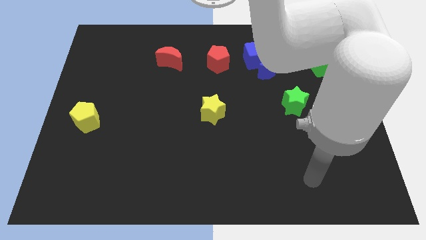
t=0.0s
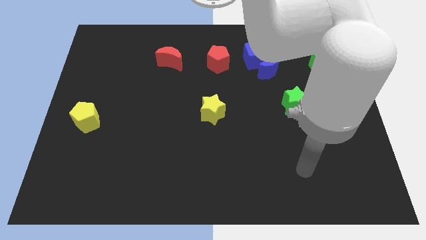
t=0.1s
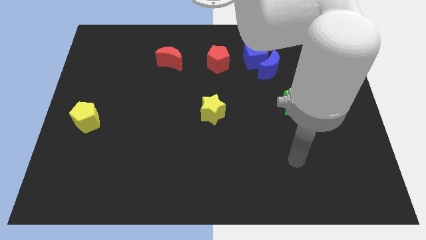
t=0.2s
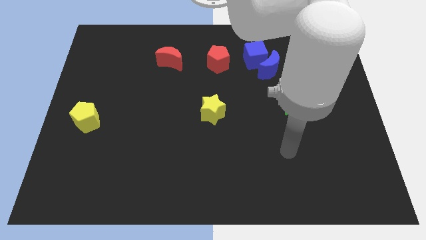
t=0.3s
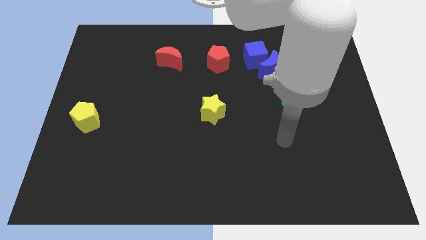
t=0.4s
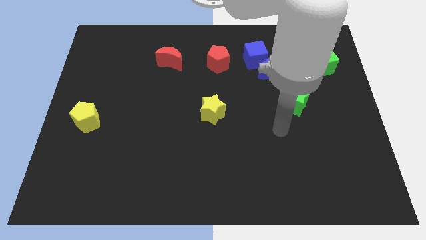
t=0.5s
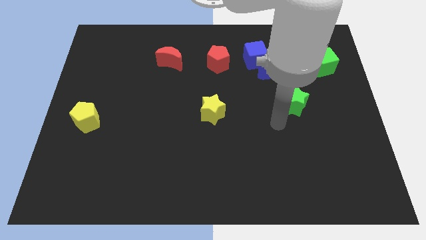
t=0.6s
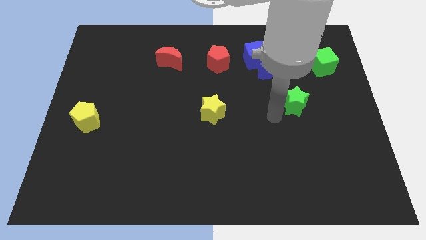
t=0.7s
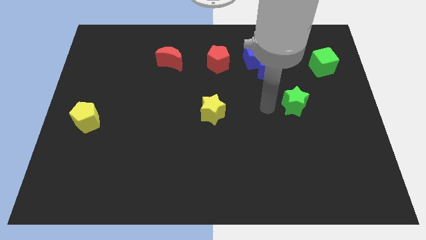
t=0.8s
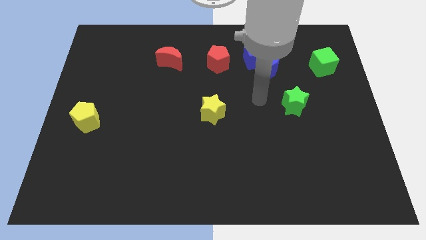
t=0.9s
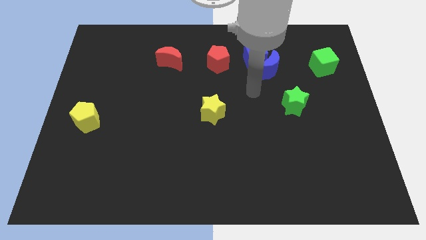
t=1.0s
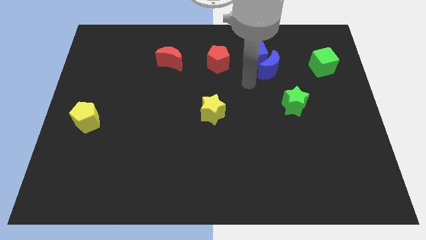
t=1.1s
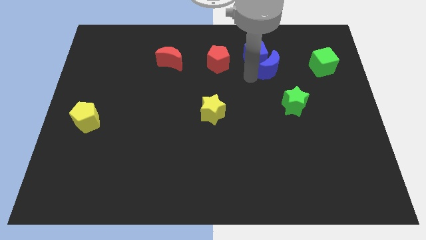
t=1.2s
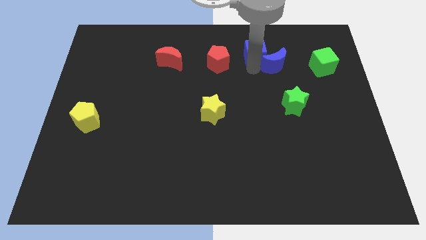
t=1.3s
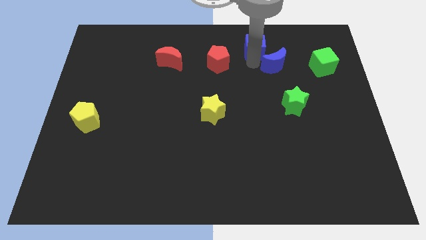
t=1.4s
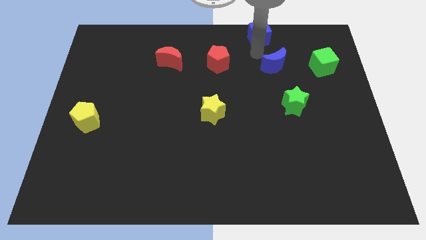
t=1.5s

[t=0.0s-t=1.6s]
separate the blue moon from the blue cube

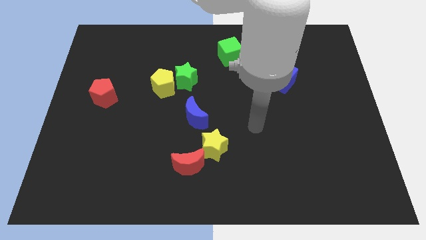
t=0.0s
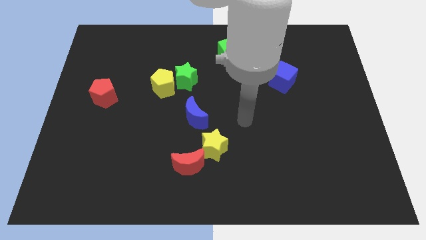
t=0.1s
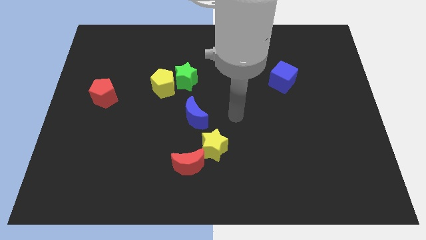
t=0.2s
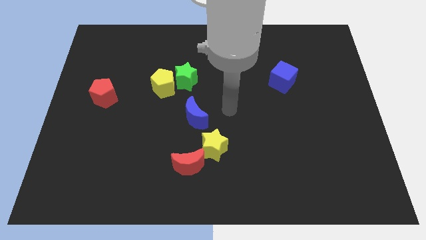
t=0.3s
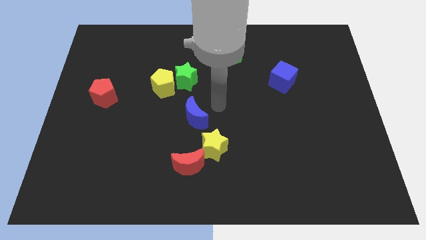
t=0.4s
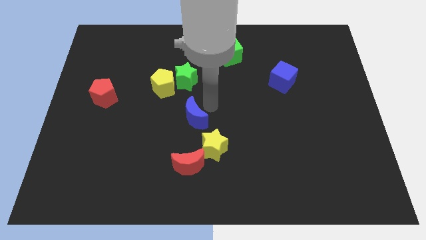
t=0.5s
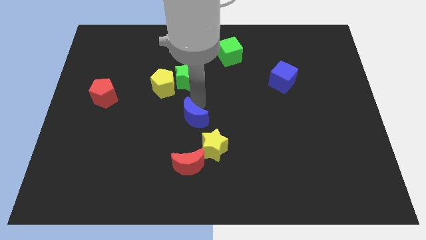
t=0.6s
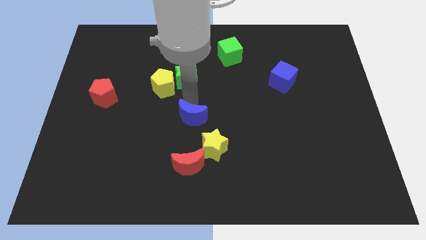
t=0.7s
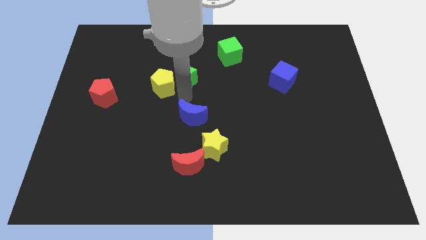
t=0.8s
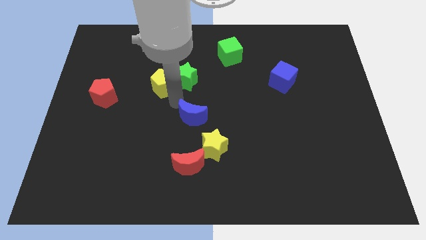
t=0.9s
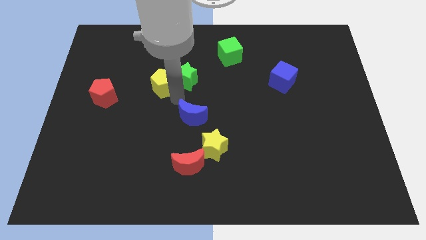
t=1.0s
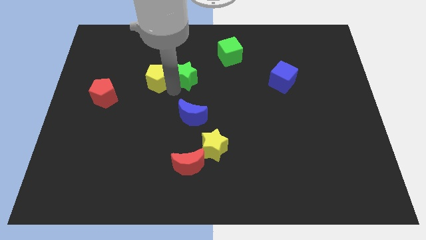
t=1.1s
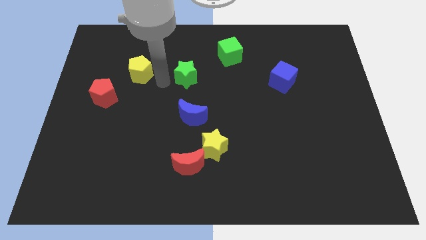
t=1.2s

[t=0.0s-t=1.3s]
separate the green star from the yellow pentagon

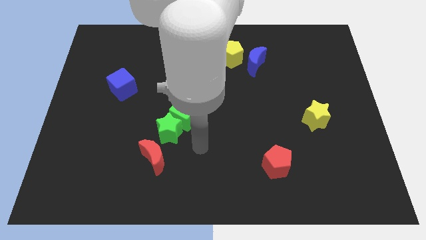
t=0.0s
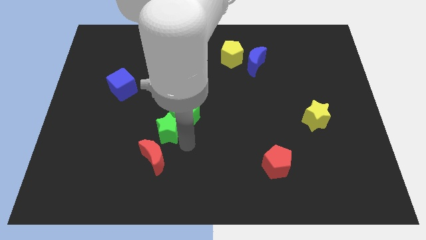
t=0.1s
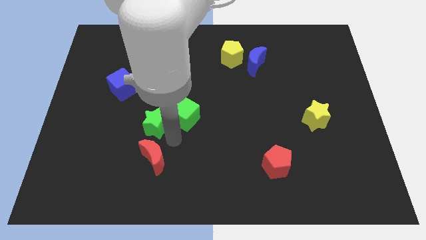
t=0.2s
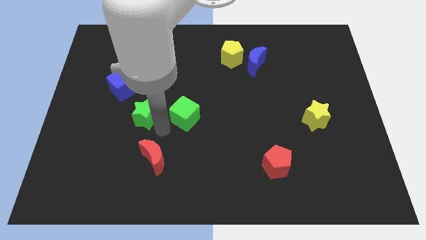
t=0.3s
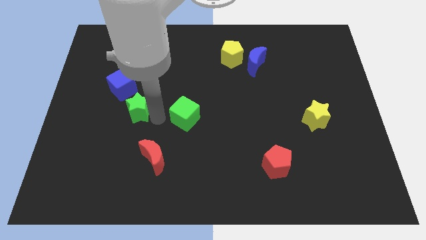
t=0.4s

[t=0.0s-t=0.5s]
separate the green cube from the green star

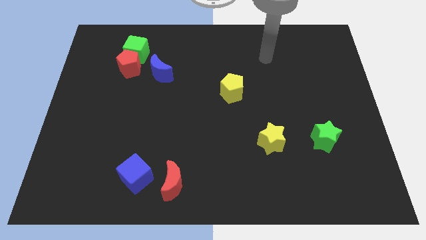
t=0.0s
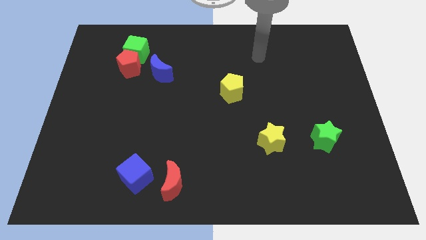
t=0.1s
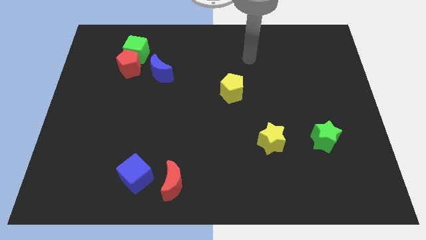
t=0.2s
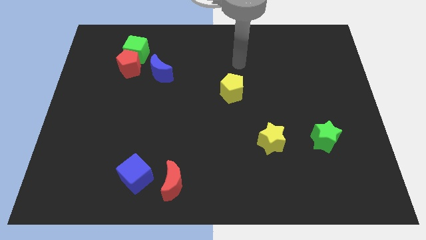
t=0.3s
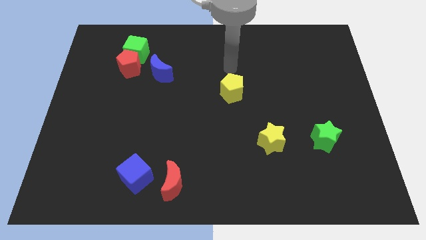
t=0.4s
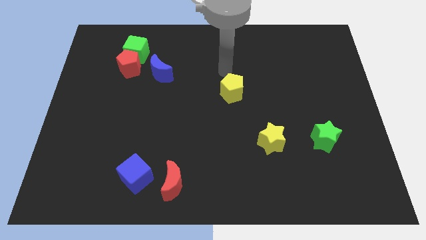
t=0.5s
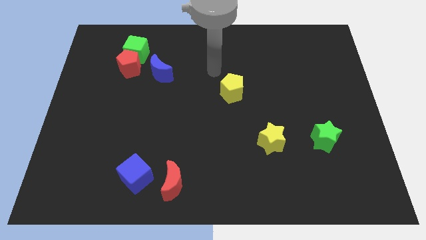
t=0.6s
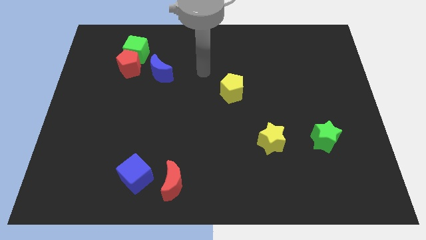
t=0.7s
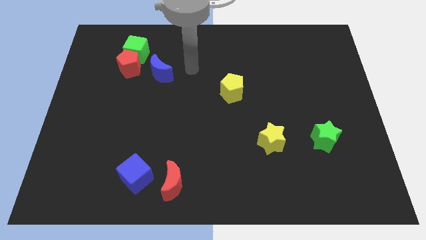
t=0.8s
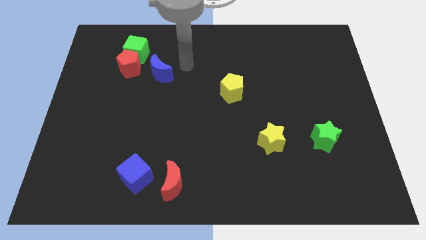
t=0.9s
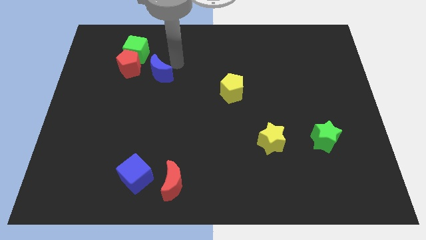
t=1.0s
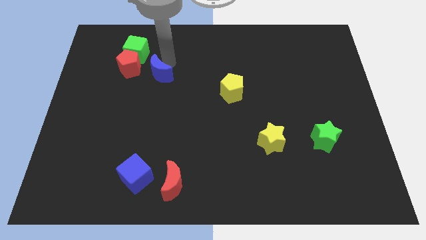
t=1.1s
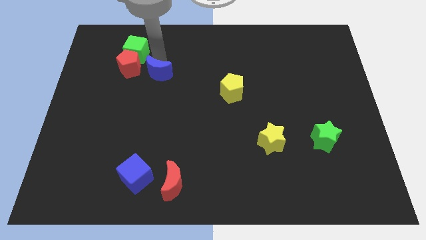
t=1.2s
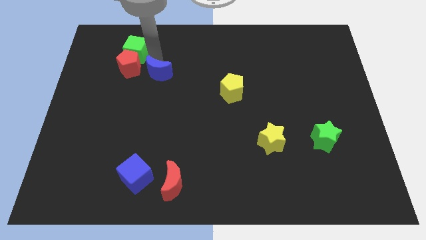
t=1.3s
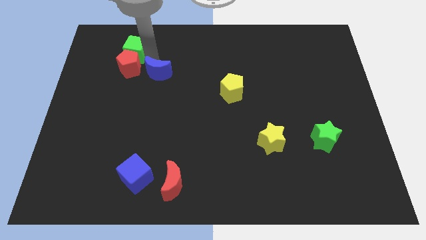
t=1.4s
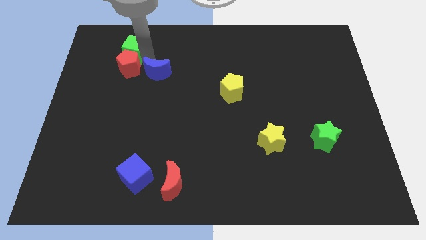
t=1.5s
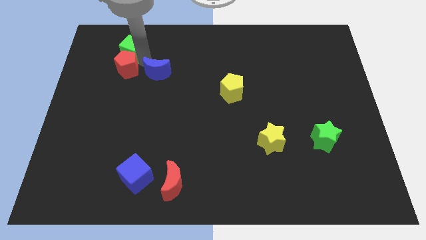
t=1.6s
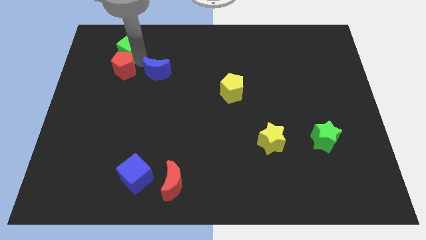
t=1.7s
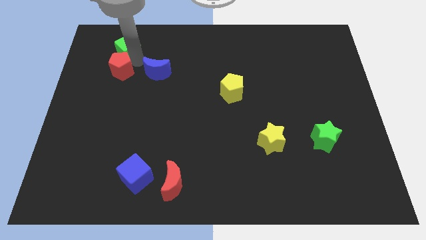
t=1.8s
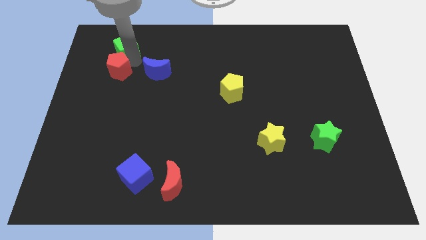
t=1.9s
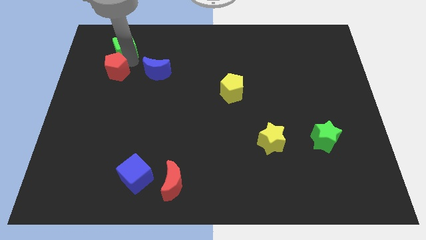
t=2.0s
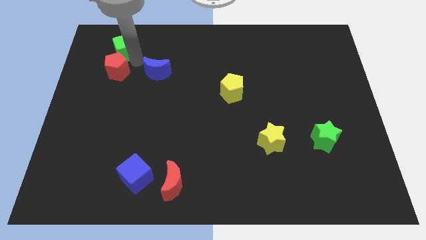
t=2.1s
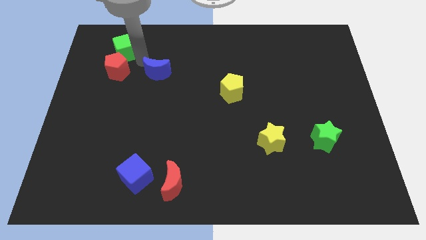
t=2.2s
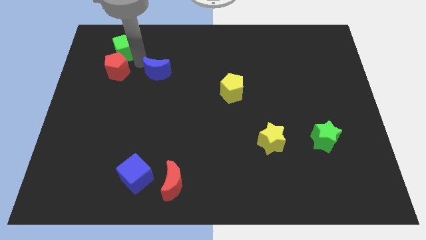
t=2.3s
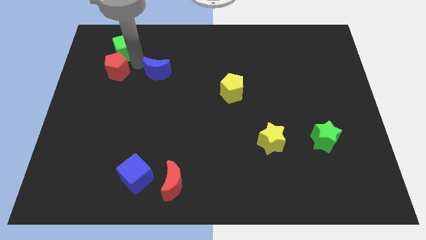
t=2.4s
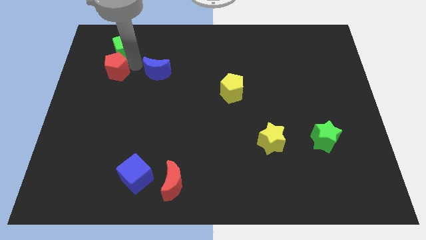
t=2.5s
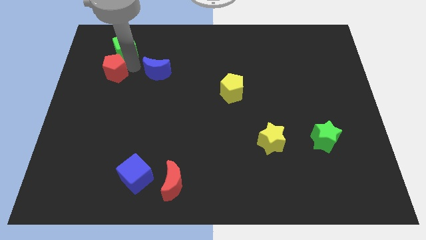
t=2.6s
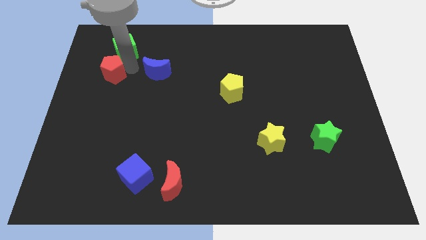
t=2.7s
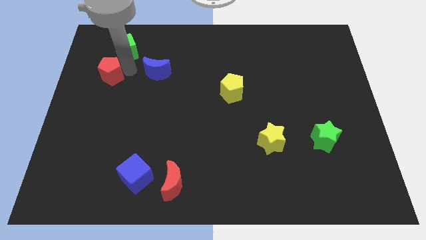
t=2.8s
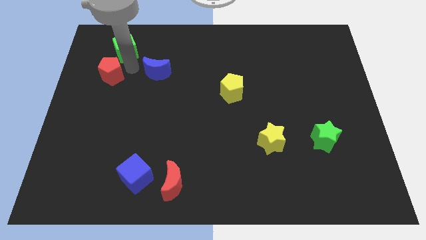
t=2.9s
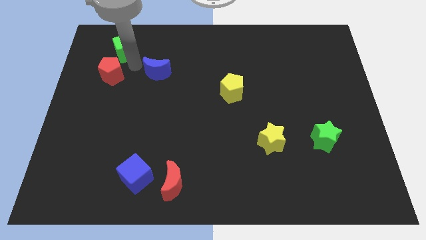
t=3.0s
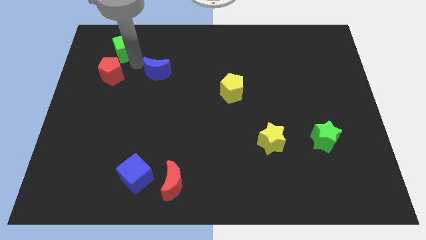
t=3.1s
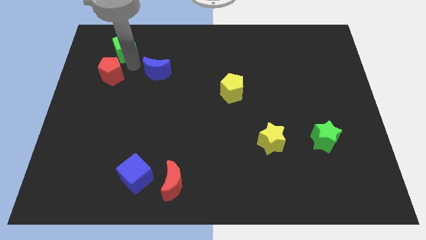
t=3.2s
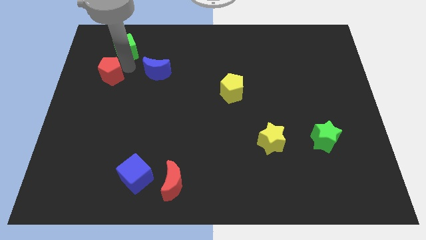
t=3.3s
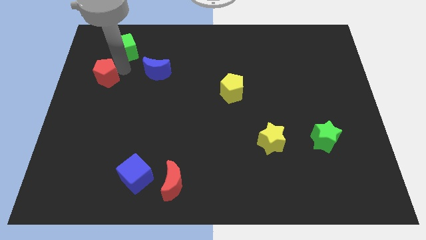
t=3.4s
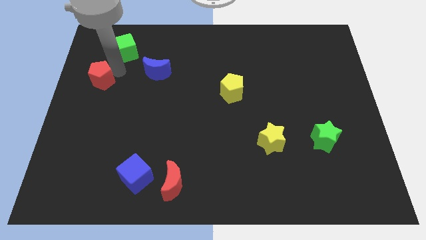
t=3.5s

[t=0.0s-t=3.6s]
pull the red pentagon apart from the green cube and blue moon

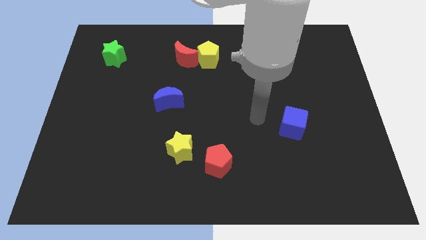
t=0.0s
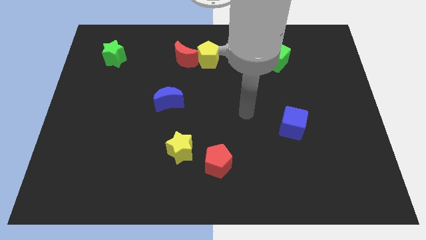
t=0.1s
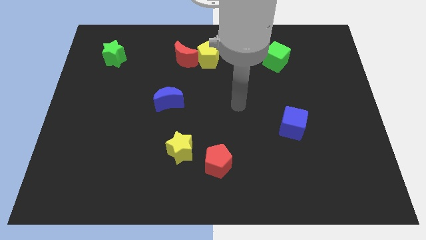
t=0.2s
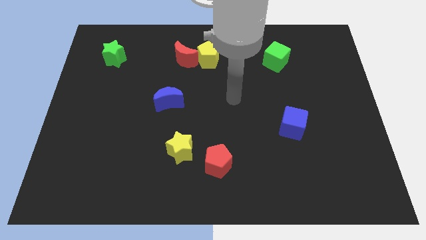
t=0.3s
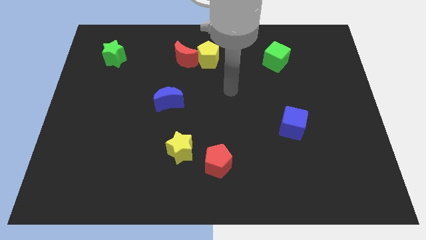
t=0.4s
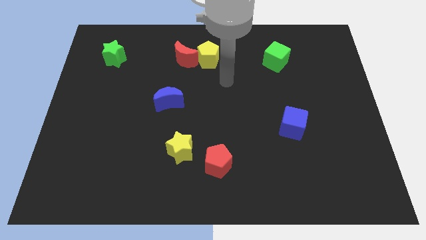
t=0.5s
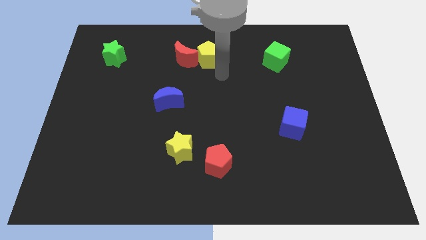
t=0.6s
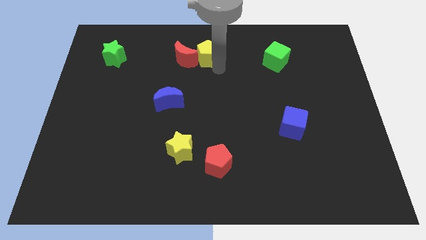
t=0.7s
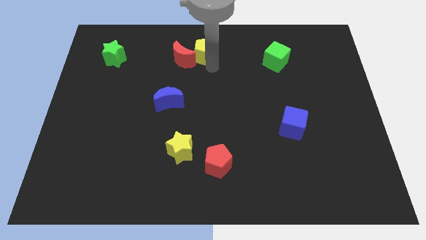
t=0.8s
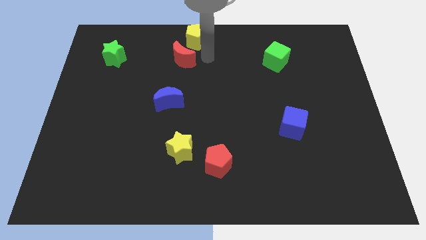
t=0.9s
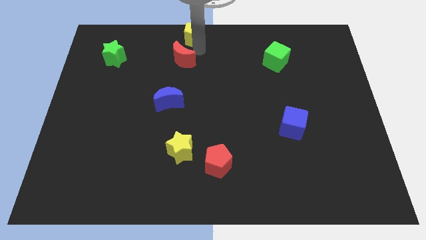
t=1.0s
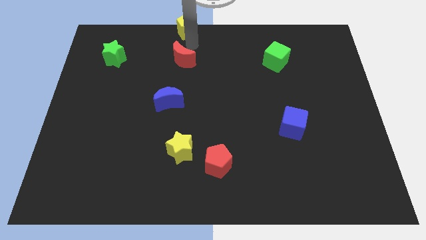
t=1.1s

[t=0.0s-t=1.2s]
separate the red moon from the yellow pentagon

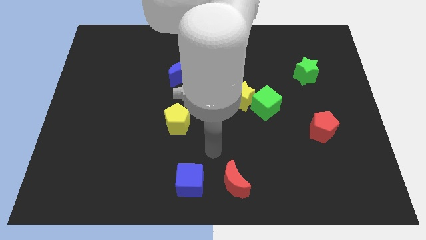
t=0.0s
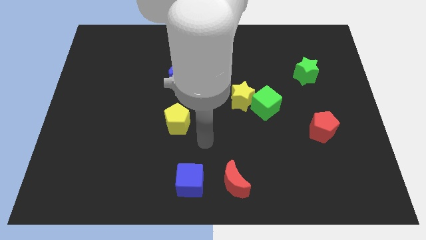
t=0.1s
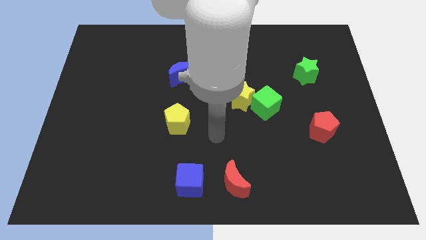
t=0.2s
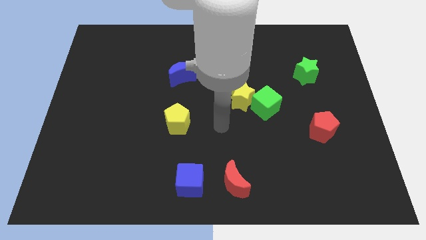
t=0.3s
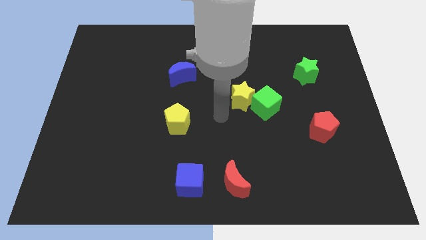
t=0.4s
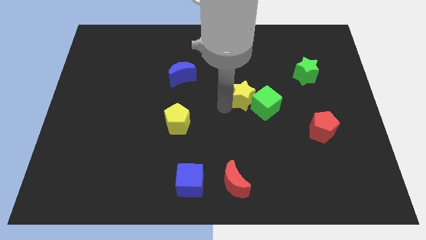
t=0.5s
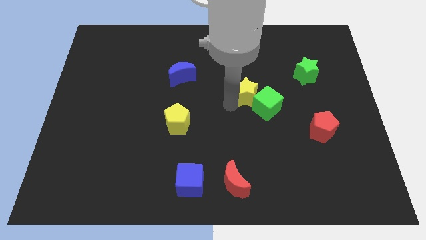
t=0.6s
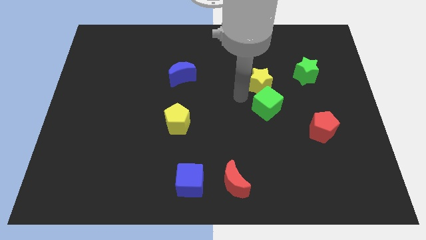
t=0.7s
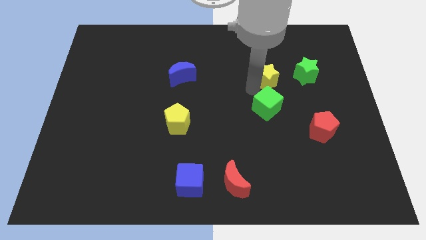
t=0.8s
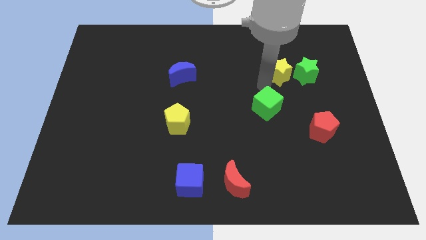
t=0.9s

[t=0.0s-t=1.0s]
separate the green cube from the yellow star
